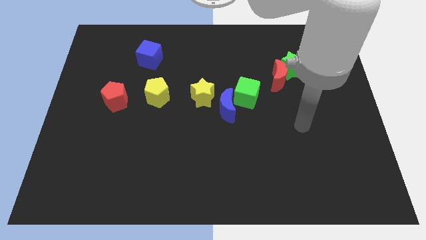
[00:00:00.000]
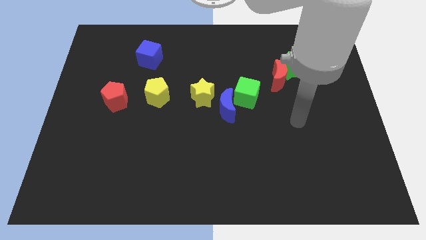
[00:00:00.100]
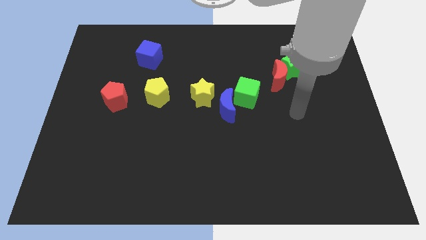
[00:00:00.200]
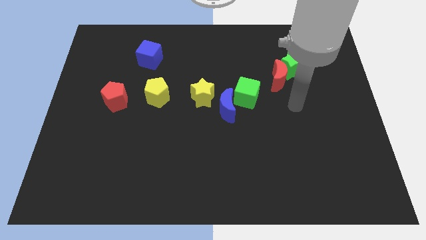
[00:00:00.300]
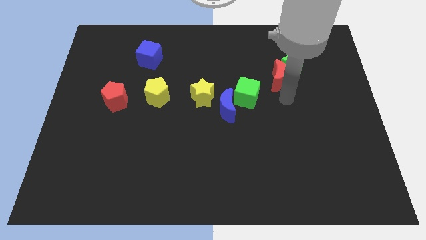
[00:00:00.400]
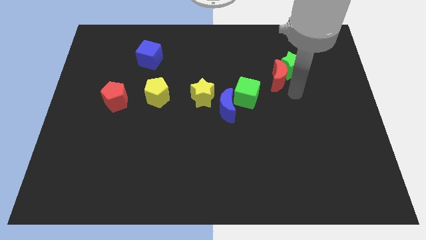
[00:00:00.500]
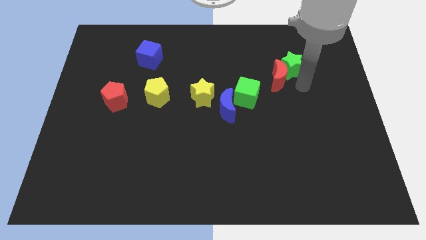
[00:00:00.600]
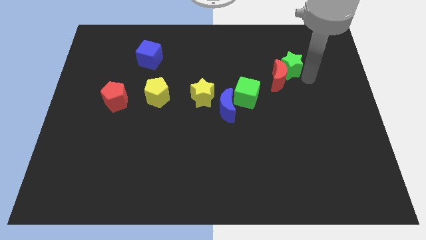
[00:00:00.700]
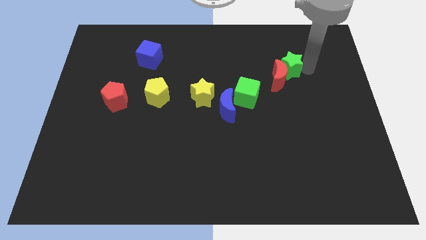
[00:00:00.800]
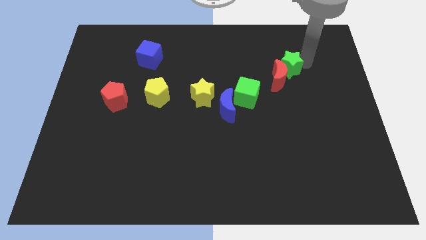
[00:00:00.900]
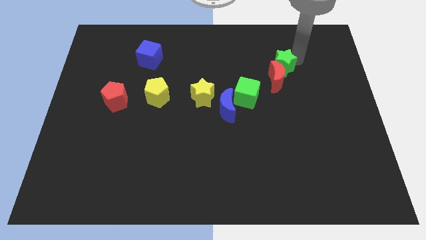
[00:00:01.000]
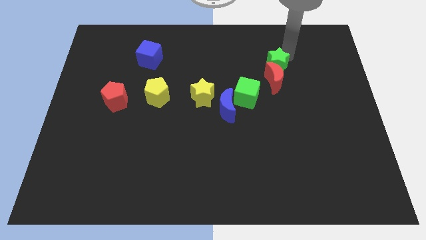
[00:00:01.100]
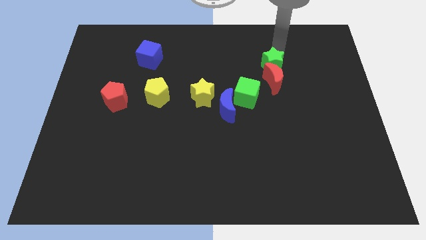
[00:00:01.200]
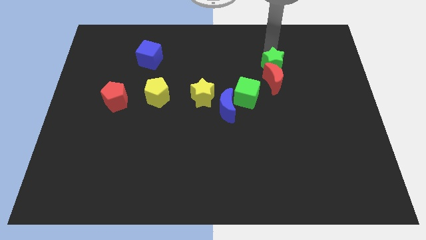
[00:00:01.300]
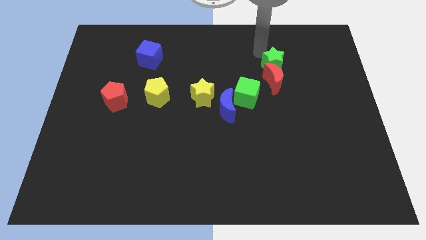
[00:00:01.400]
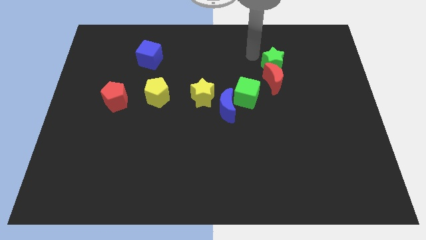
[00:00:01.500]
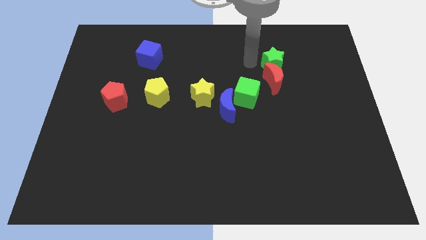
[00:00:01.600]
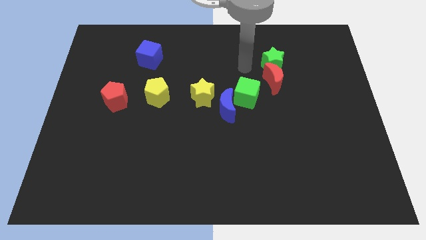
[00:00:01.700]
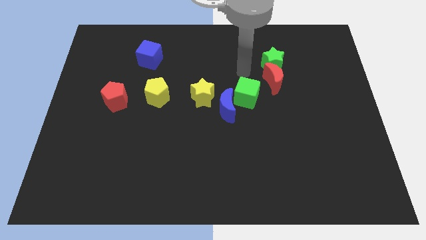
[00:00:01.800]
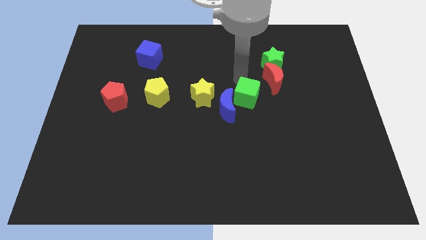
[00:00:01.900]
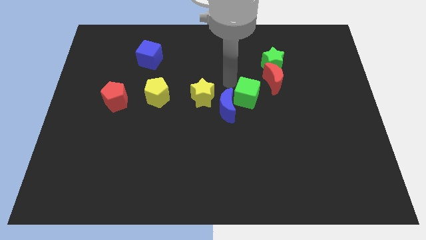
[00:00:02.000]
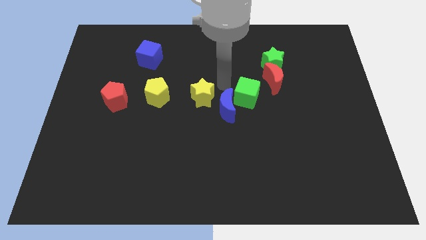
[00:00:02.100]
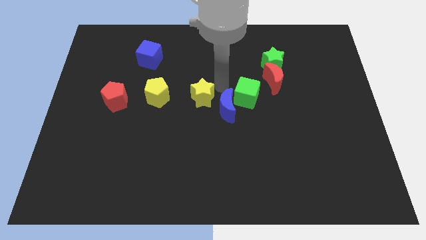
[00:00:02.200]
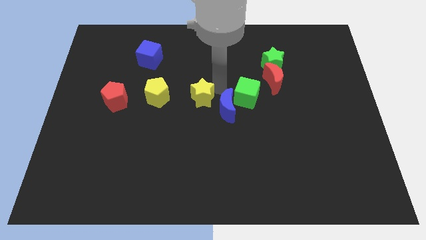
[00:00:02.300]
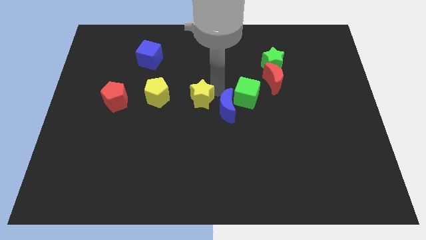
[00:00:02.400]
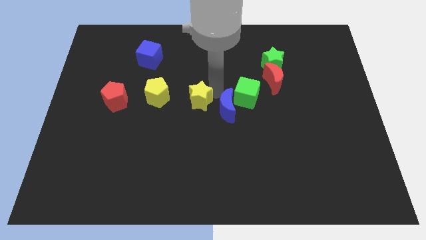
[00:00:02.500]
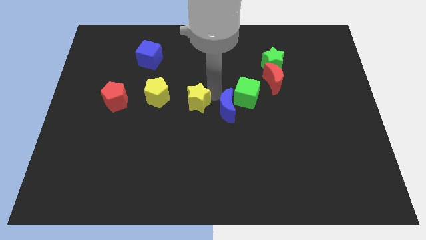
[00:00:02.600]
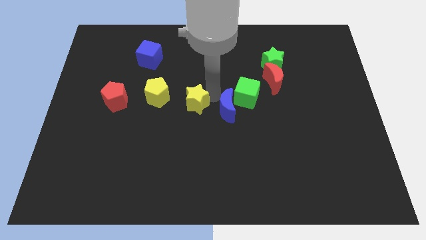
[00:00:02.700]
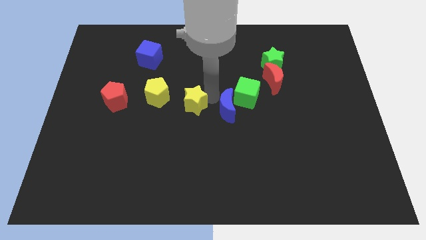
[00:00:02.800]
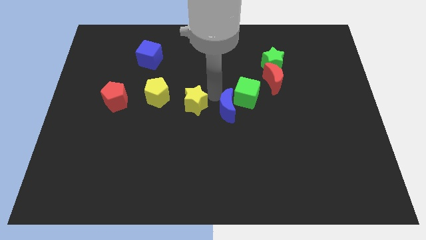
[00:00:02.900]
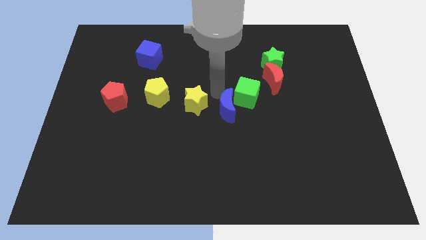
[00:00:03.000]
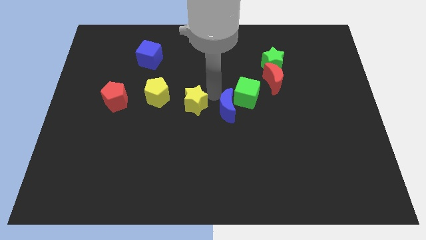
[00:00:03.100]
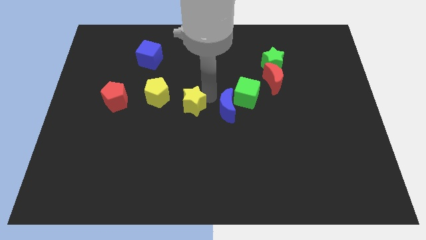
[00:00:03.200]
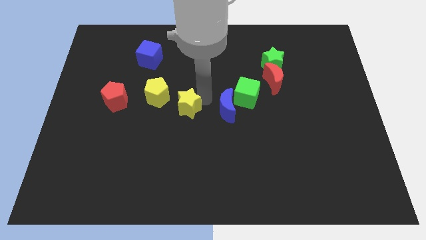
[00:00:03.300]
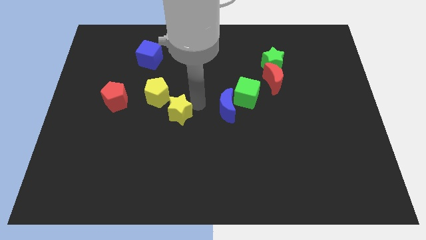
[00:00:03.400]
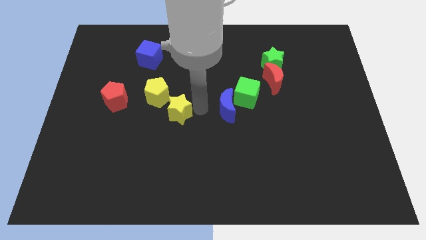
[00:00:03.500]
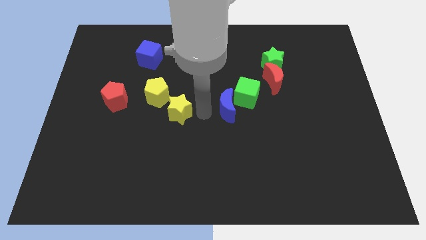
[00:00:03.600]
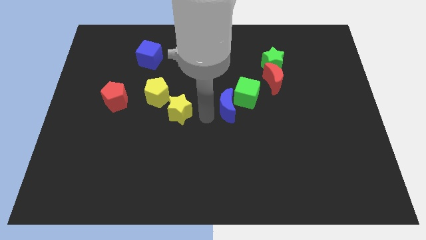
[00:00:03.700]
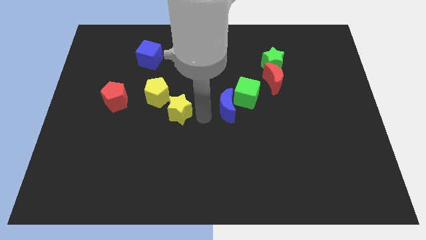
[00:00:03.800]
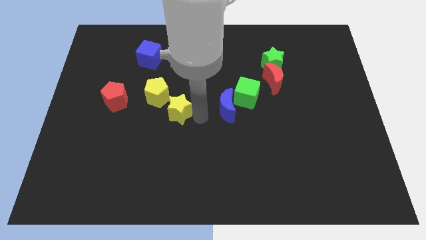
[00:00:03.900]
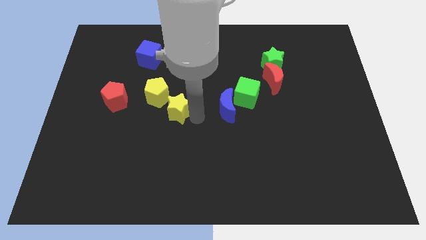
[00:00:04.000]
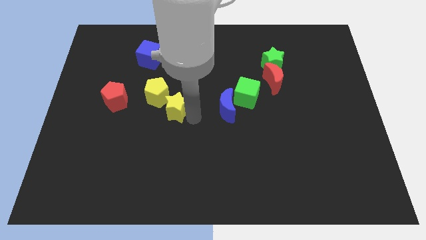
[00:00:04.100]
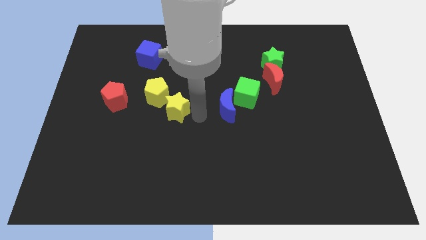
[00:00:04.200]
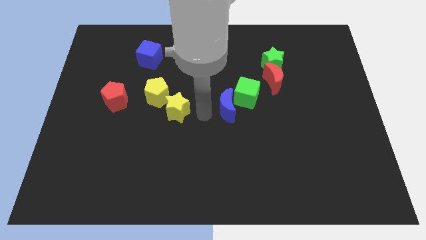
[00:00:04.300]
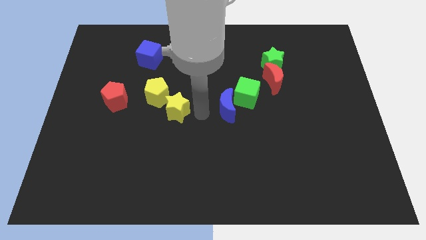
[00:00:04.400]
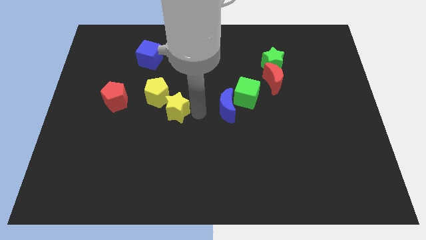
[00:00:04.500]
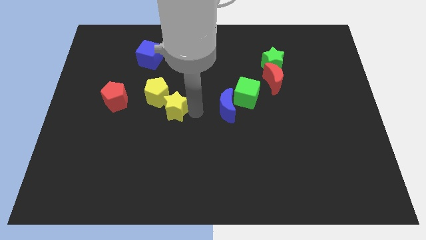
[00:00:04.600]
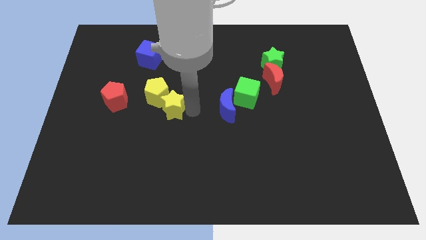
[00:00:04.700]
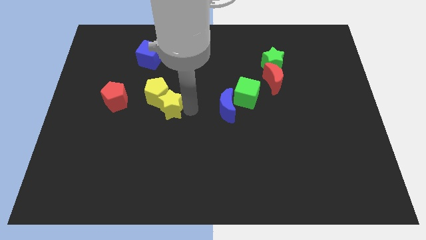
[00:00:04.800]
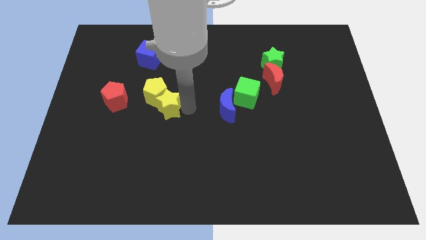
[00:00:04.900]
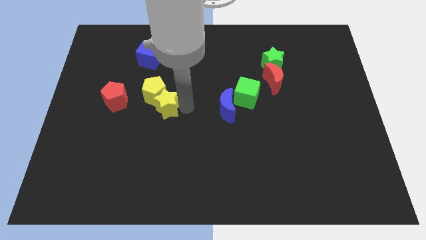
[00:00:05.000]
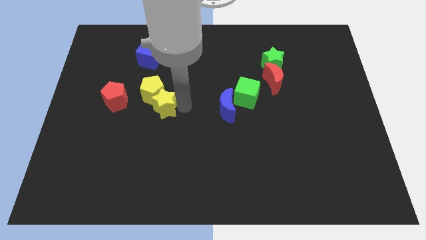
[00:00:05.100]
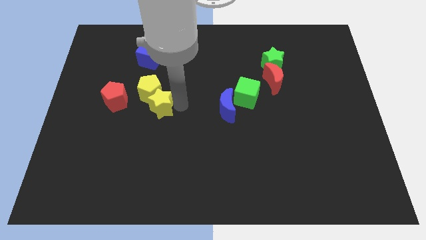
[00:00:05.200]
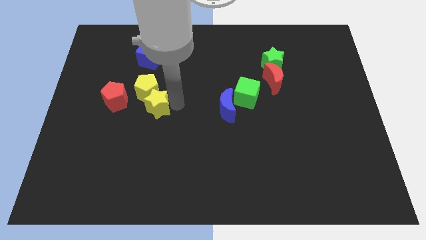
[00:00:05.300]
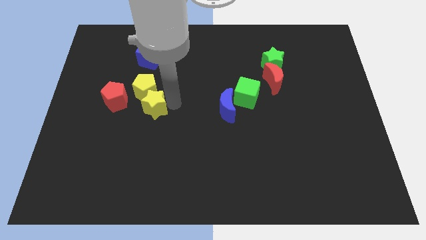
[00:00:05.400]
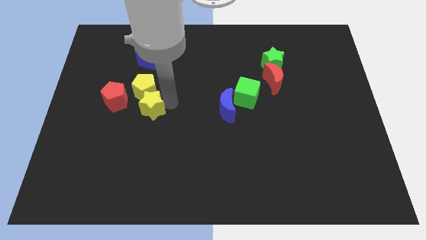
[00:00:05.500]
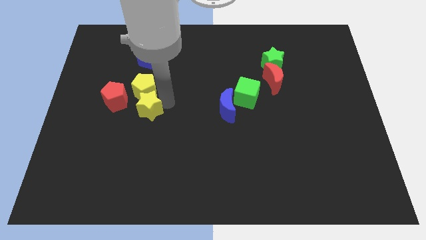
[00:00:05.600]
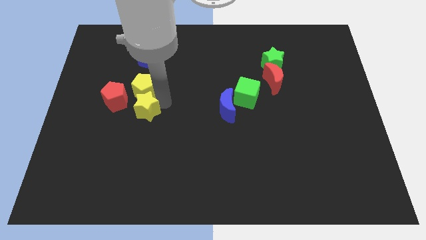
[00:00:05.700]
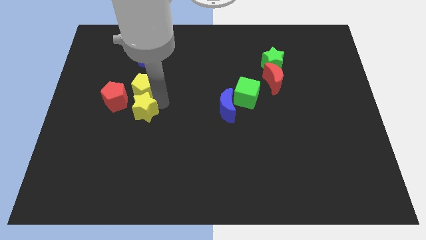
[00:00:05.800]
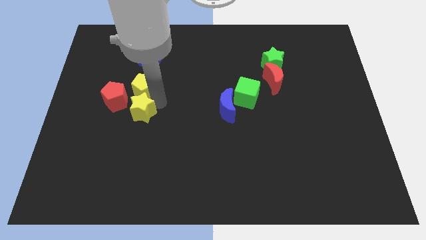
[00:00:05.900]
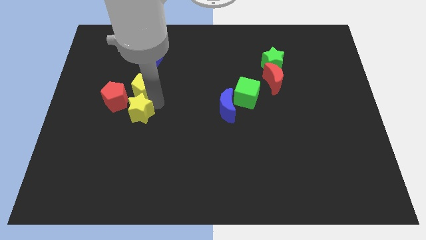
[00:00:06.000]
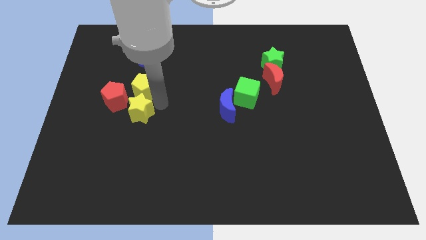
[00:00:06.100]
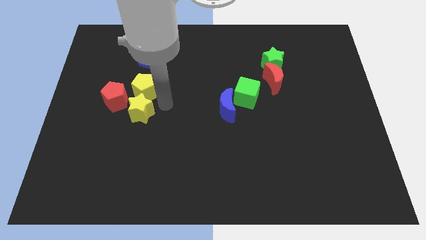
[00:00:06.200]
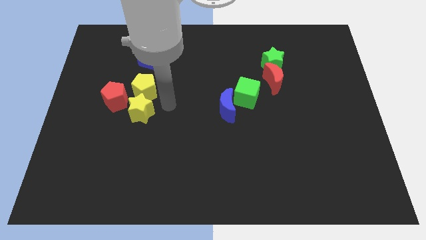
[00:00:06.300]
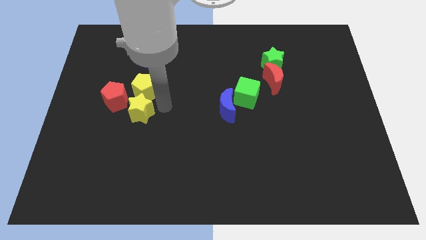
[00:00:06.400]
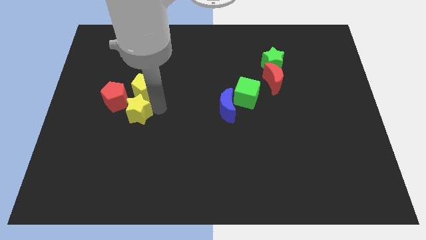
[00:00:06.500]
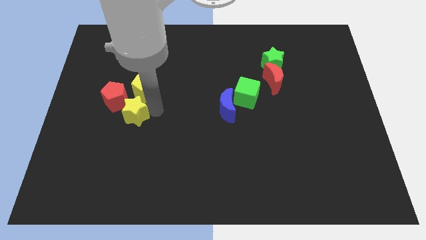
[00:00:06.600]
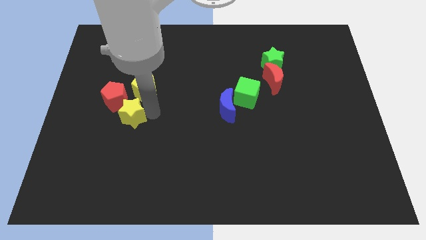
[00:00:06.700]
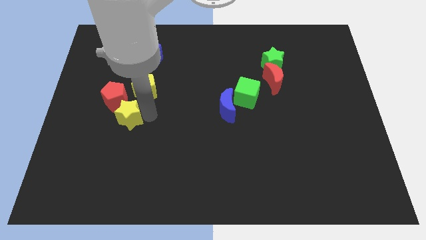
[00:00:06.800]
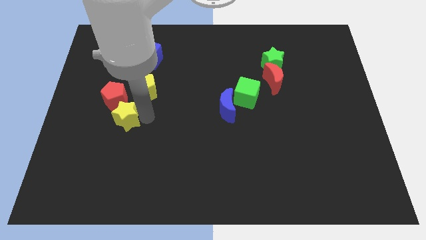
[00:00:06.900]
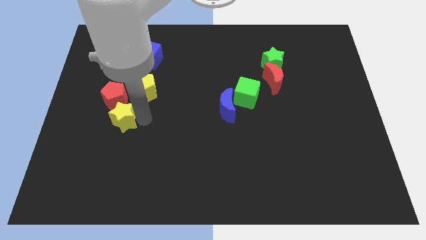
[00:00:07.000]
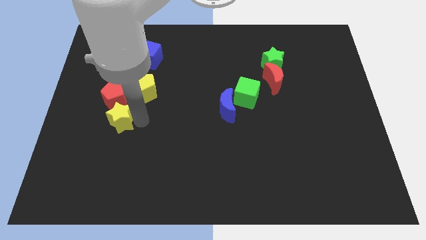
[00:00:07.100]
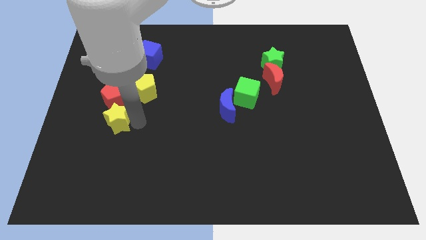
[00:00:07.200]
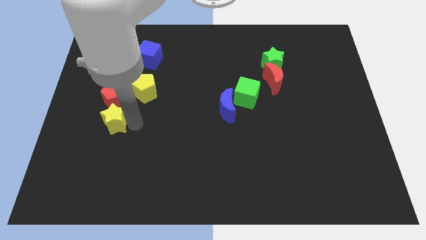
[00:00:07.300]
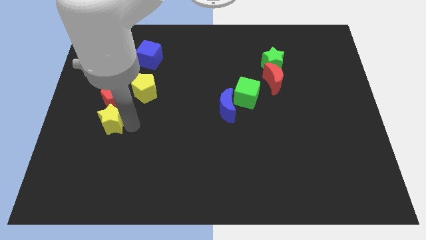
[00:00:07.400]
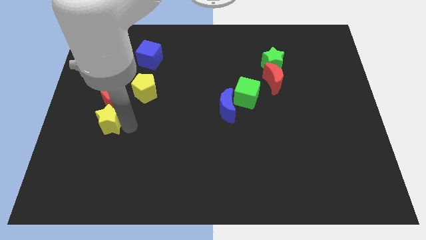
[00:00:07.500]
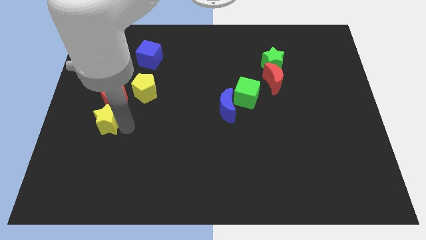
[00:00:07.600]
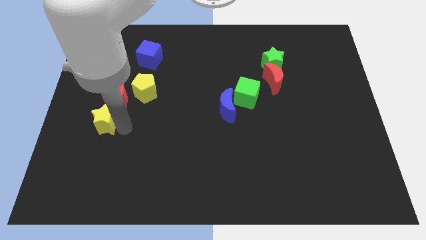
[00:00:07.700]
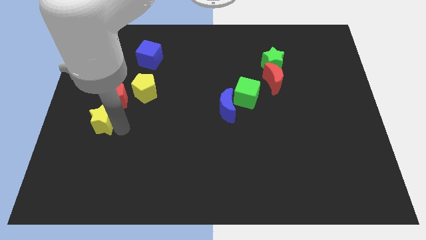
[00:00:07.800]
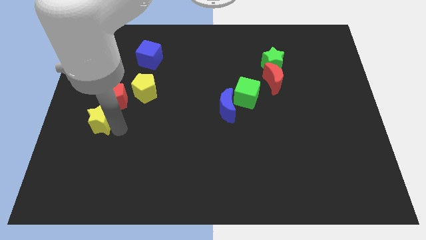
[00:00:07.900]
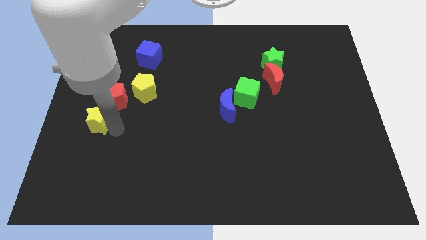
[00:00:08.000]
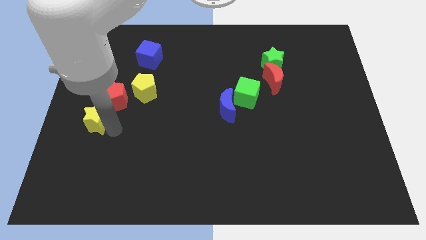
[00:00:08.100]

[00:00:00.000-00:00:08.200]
move the yellow star to the left side of the board
